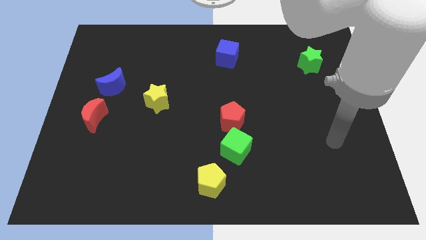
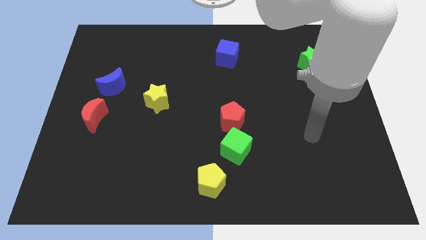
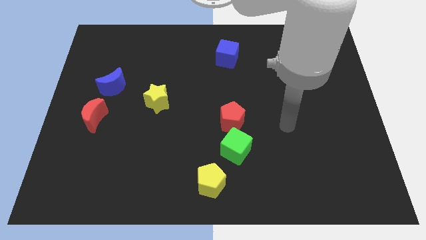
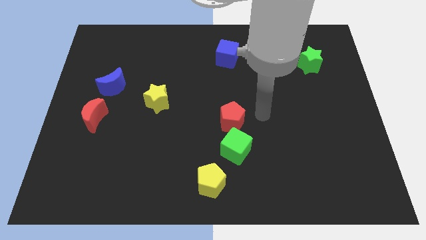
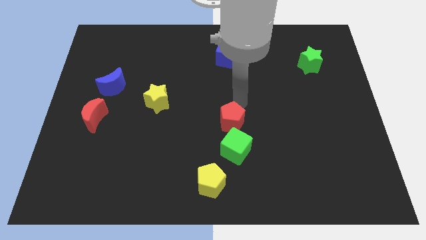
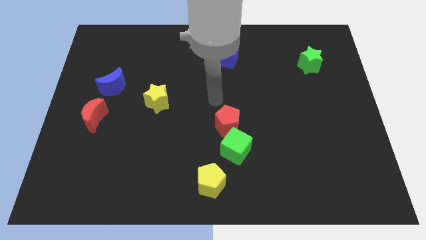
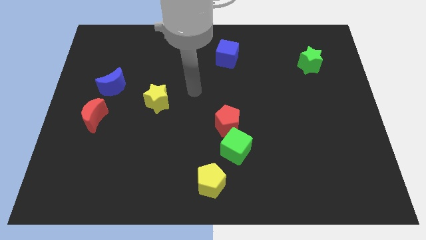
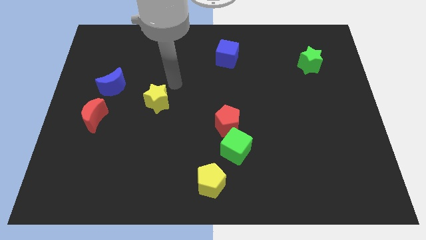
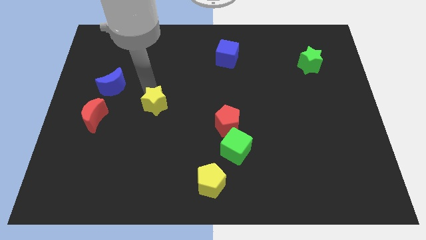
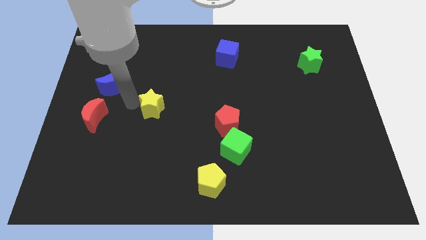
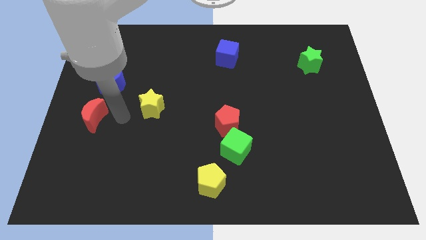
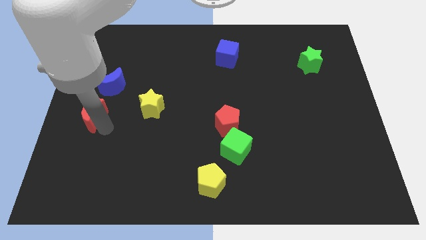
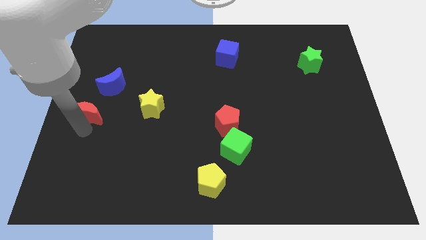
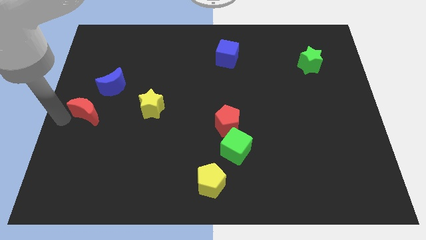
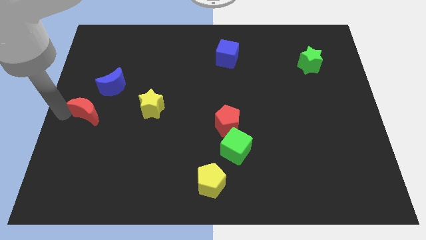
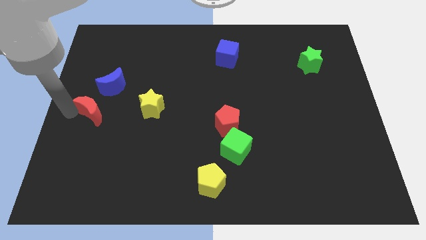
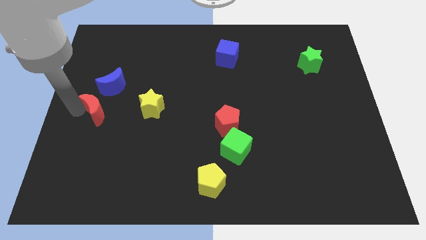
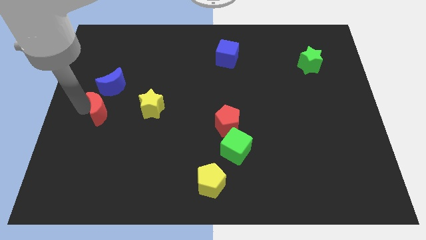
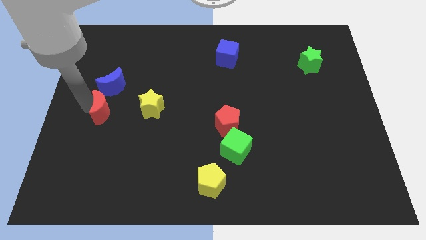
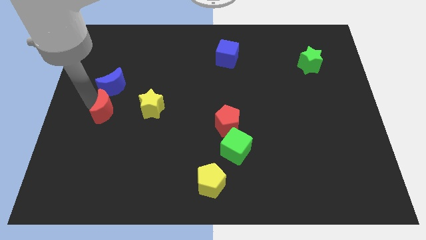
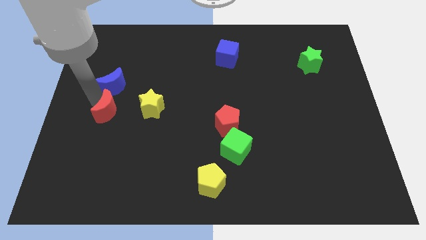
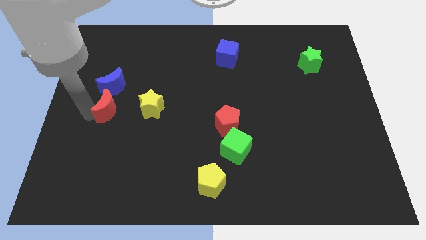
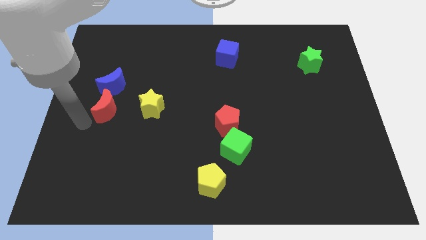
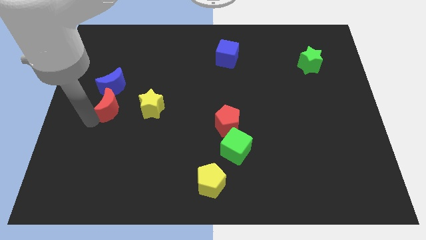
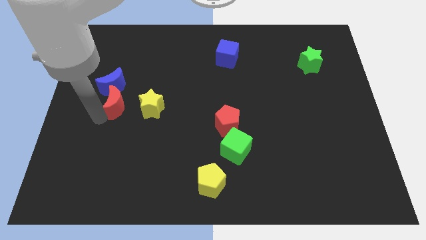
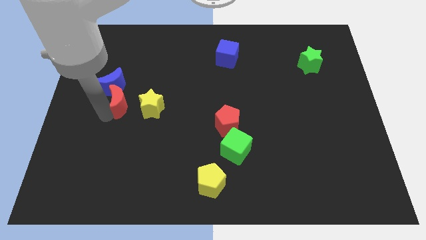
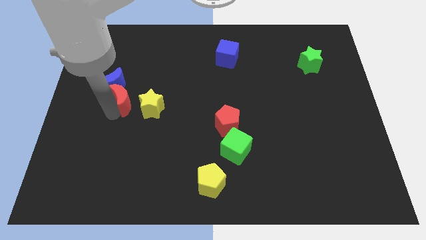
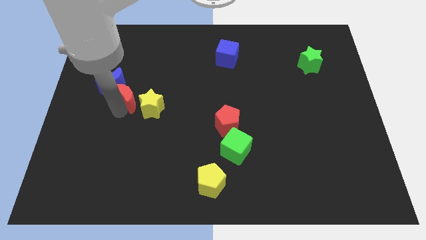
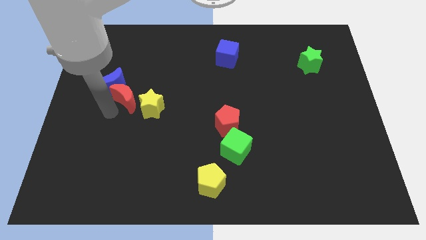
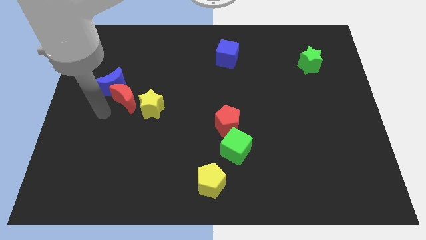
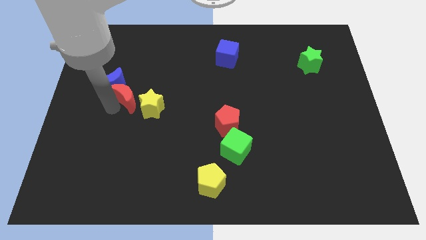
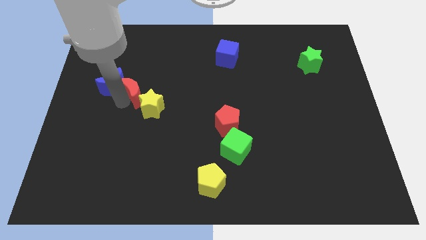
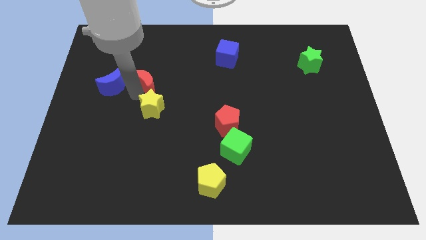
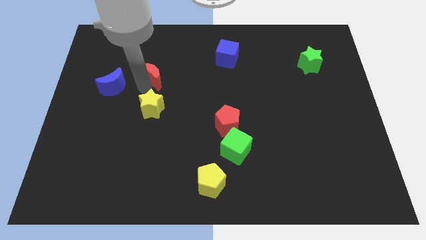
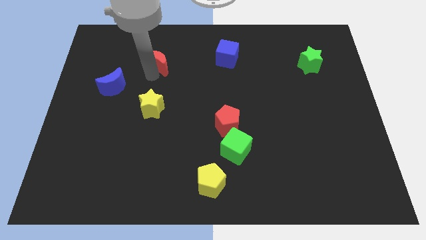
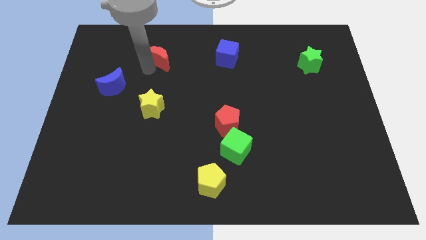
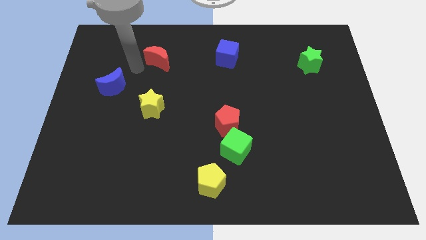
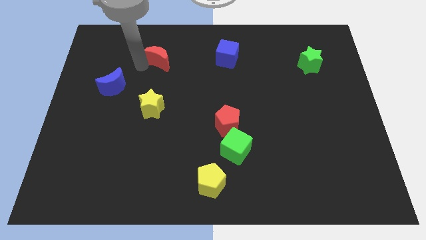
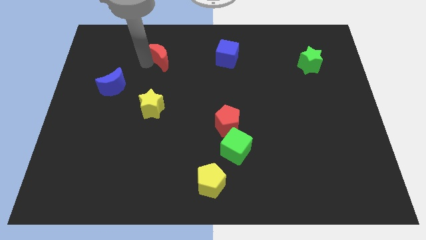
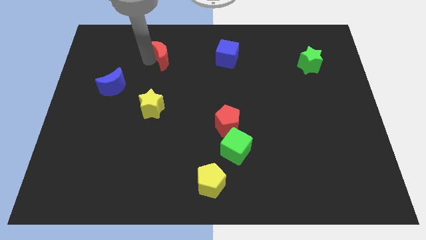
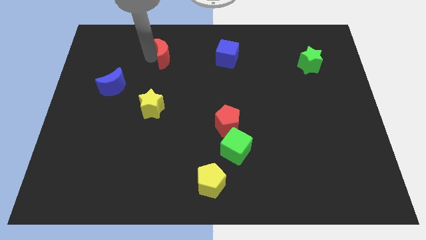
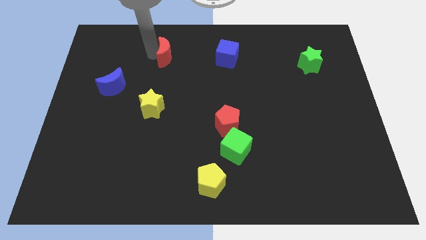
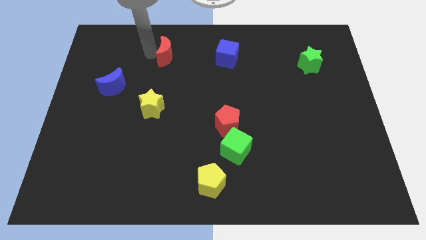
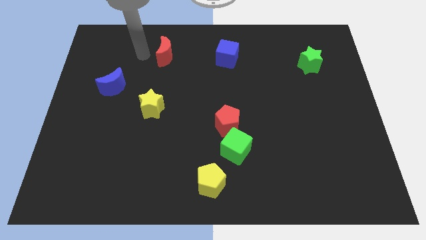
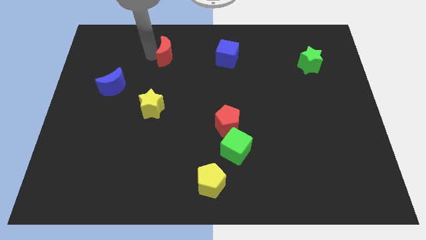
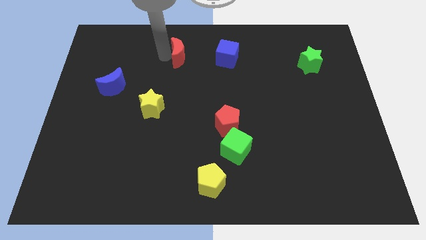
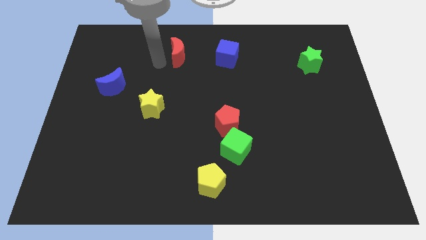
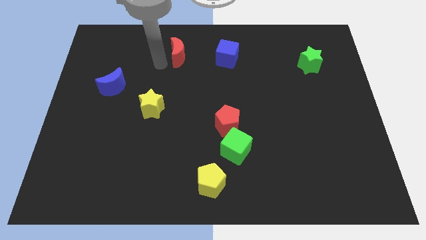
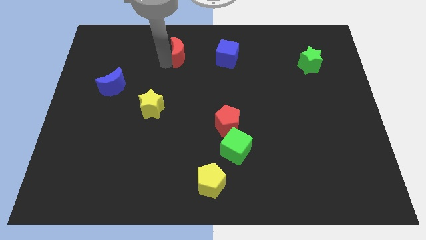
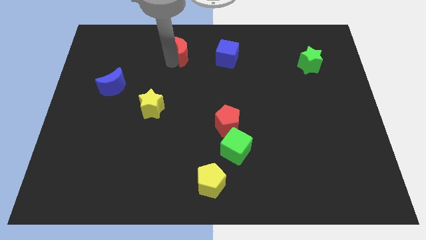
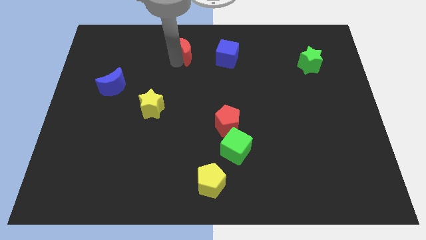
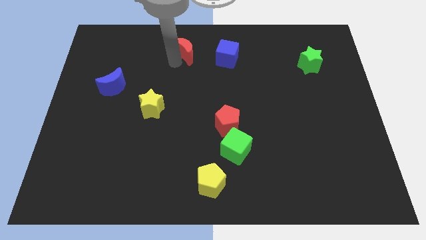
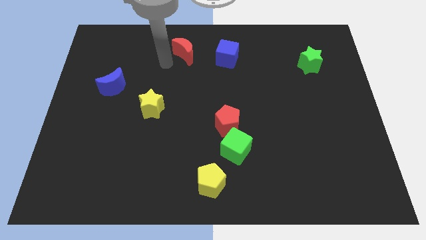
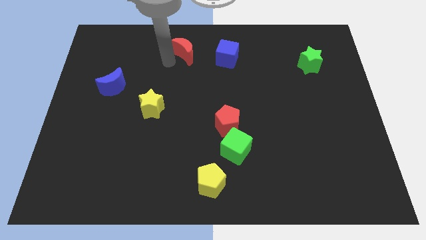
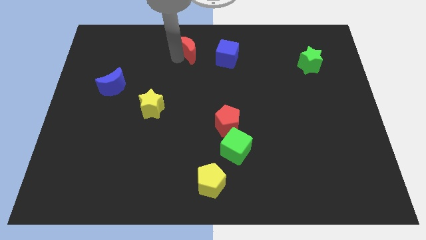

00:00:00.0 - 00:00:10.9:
put the red moon to the towards your base

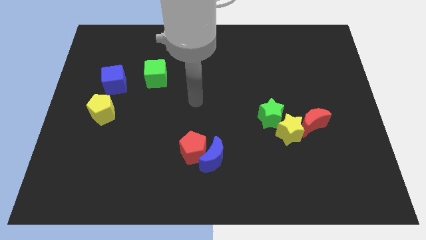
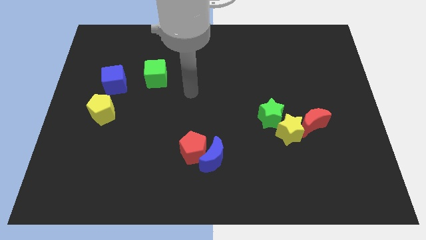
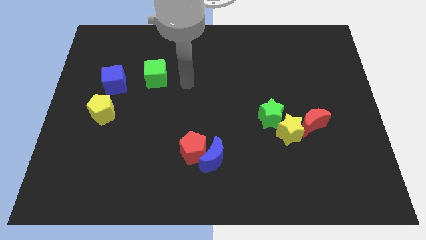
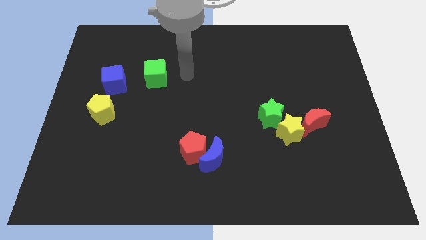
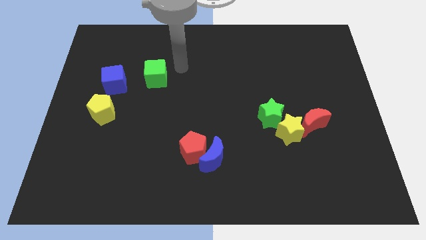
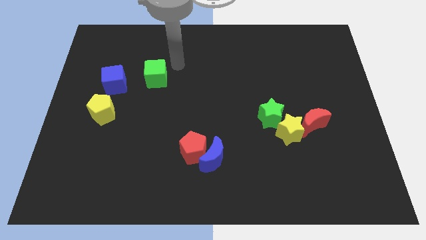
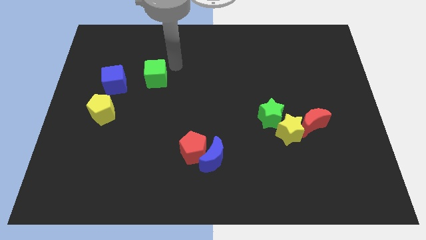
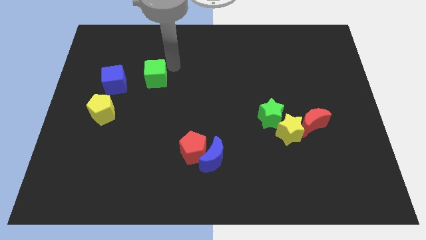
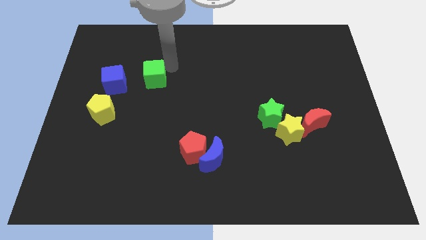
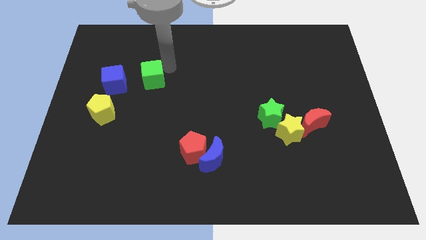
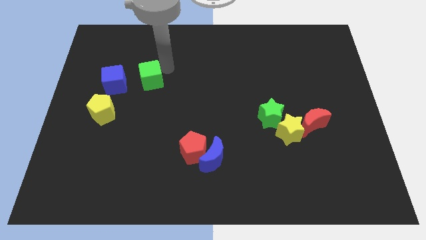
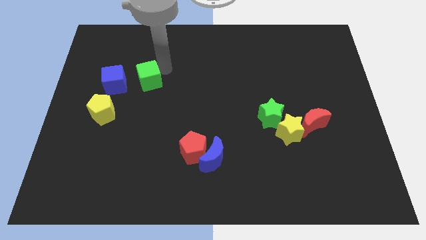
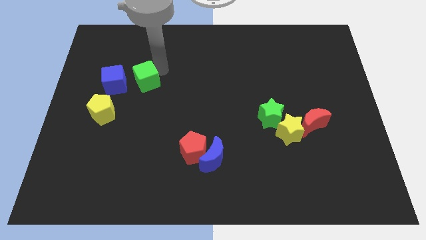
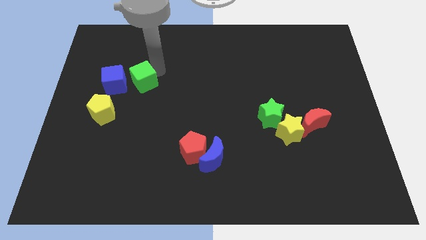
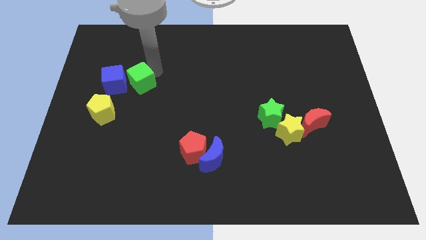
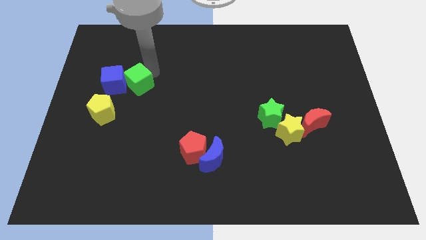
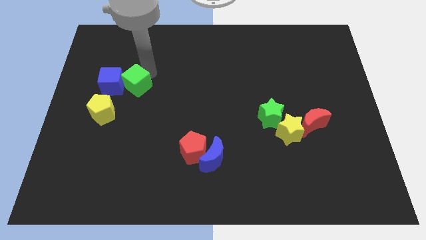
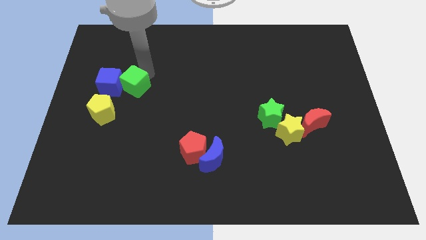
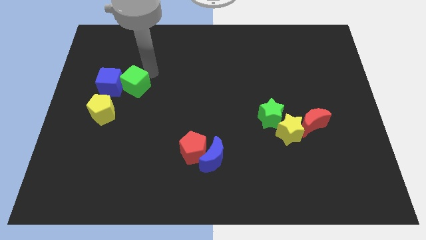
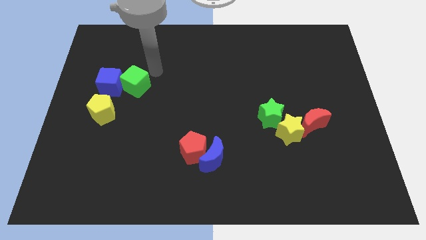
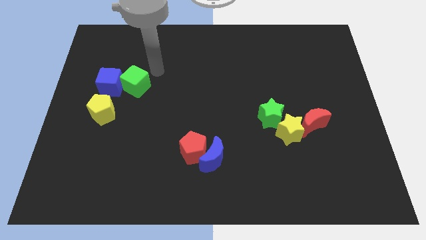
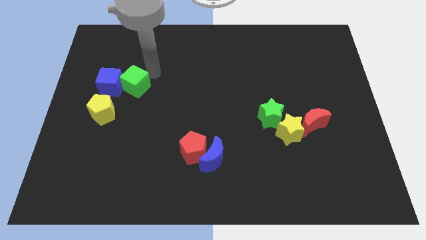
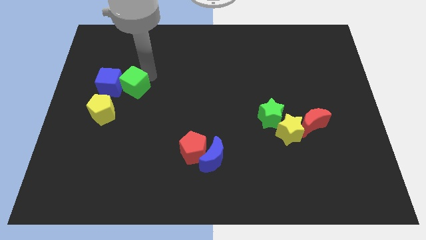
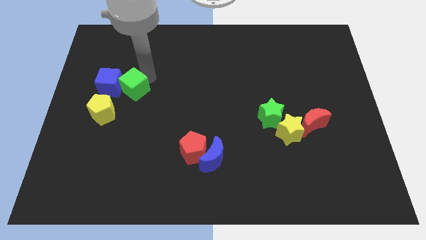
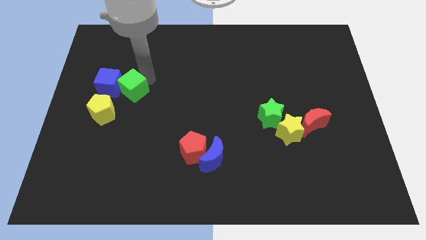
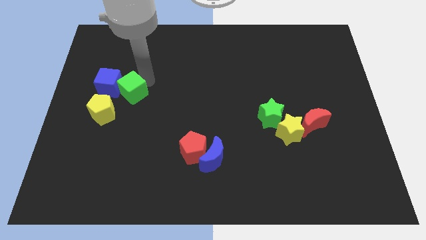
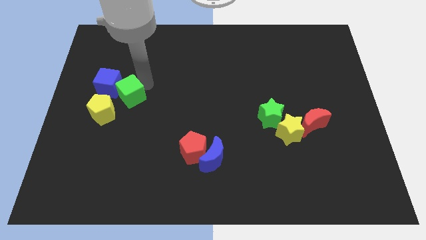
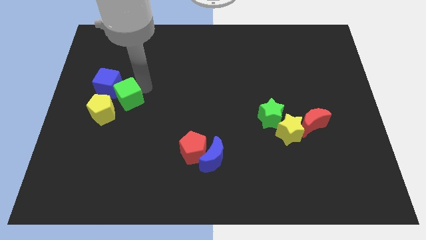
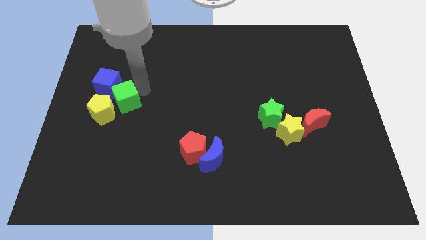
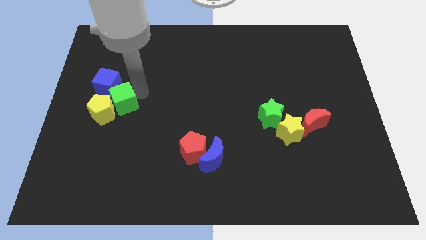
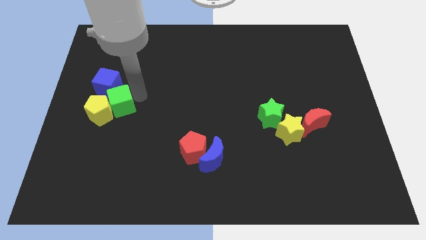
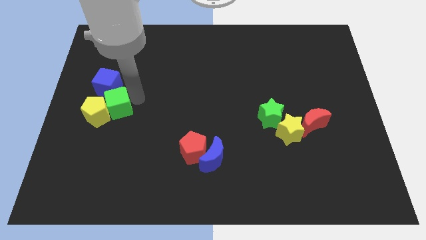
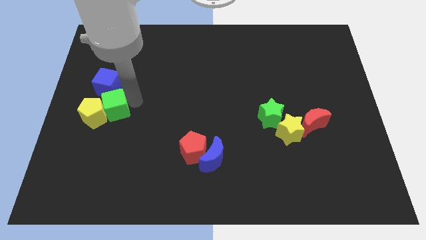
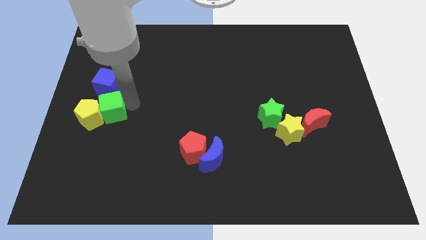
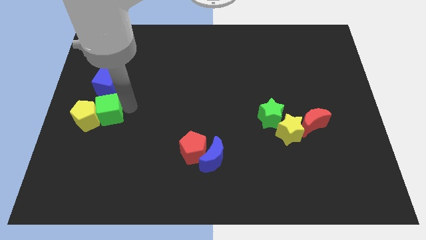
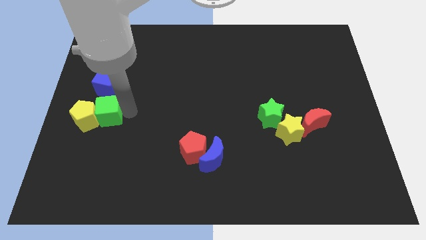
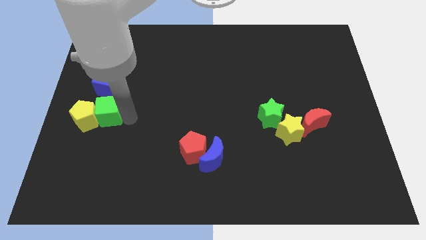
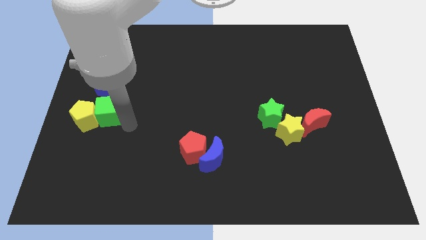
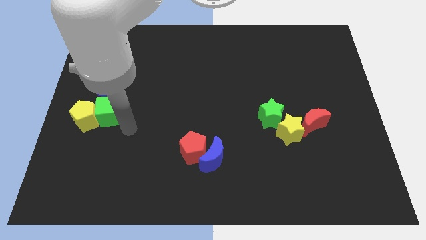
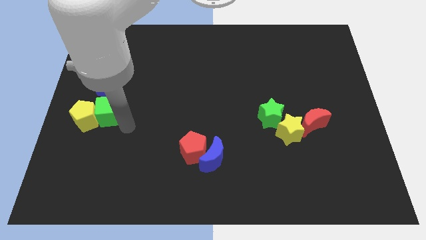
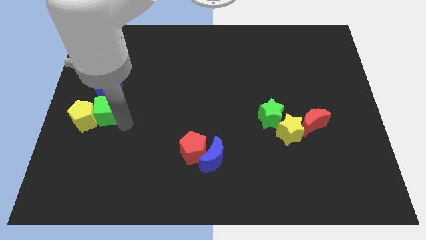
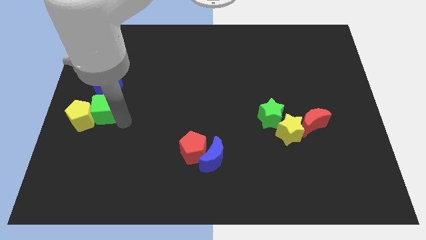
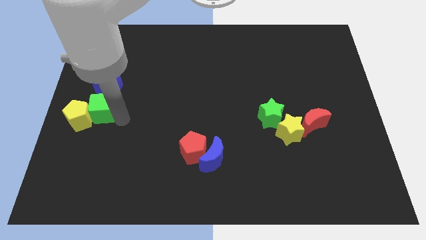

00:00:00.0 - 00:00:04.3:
move the green cube to the center left
